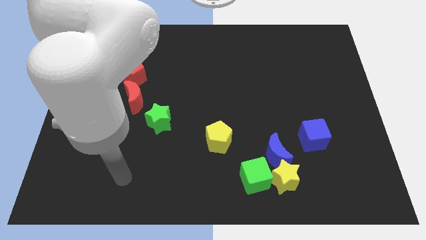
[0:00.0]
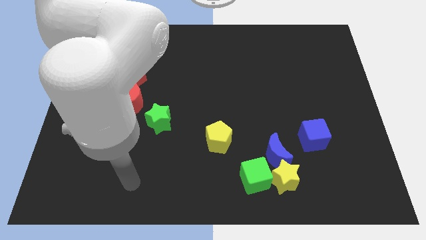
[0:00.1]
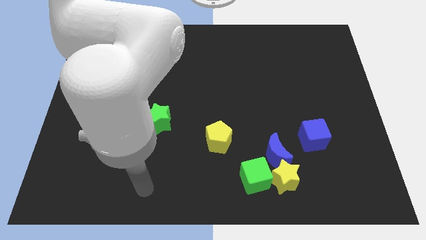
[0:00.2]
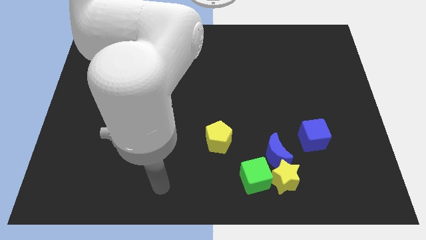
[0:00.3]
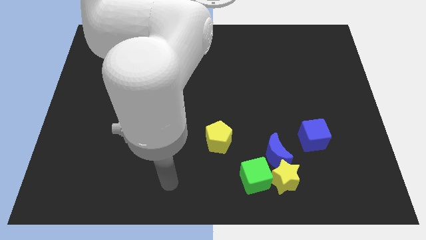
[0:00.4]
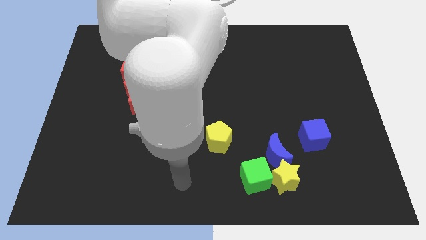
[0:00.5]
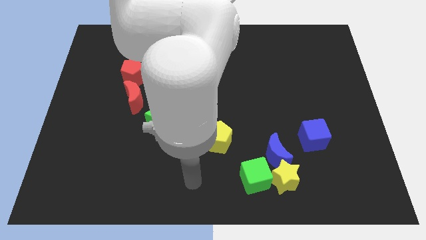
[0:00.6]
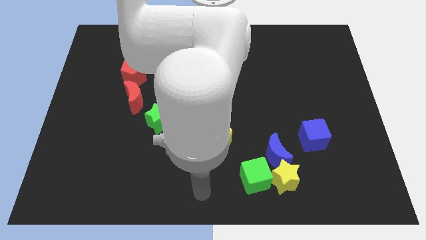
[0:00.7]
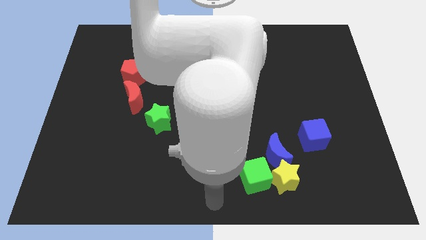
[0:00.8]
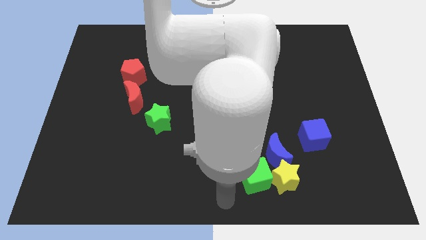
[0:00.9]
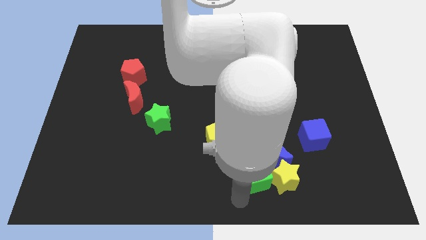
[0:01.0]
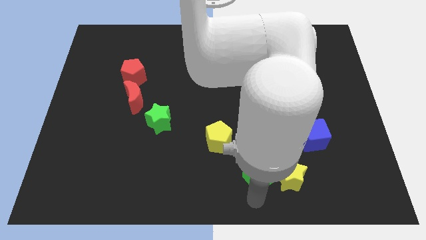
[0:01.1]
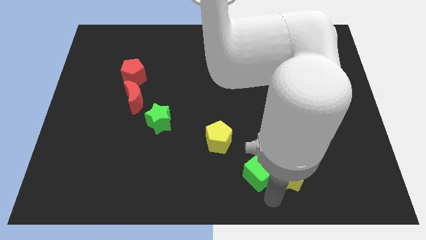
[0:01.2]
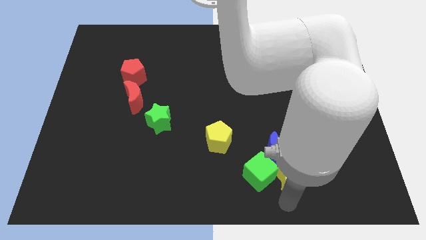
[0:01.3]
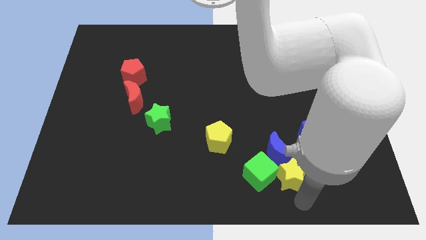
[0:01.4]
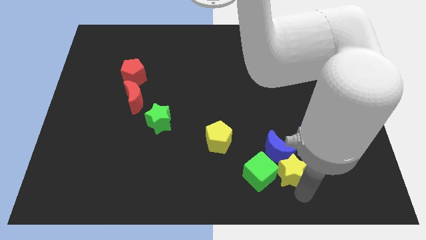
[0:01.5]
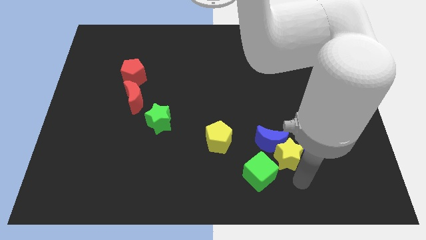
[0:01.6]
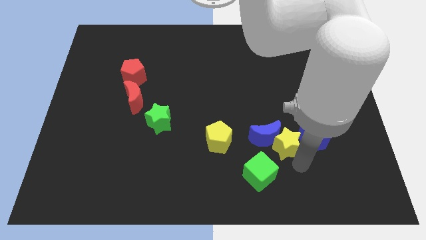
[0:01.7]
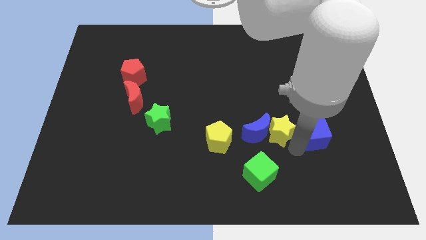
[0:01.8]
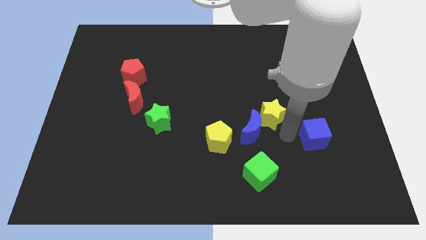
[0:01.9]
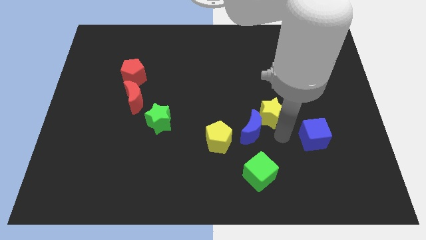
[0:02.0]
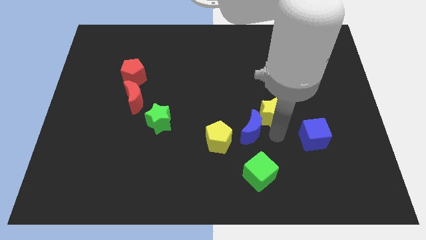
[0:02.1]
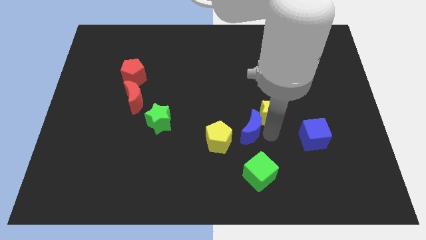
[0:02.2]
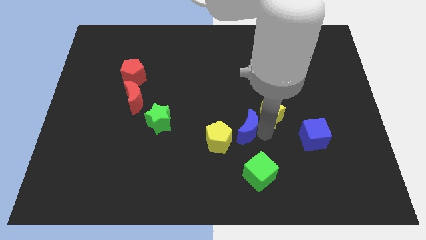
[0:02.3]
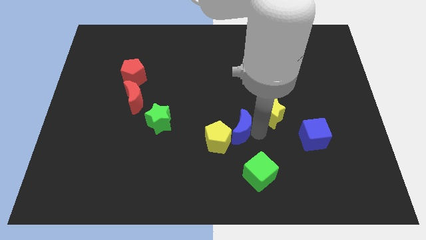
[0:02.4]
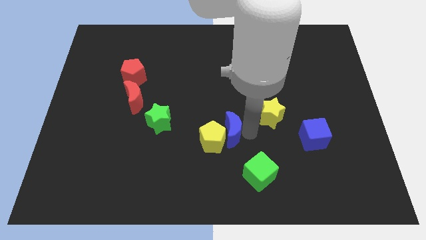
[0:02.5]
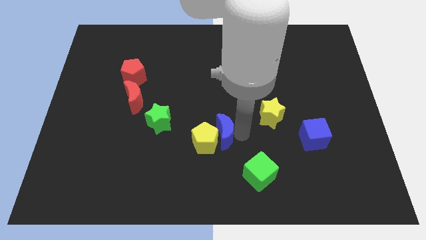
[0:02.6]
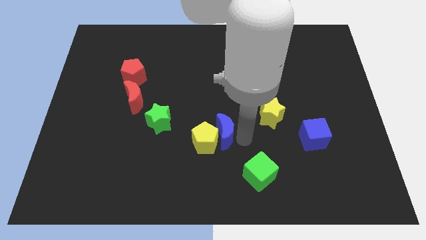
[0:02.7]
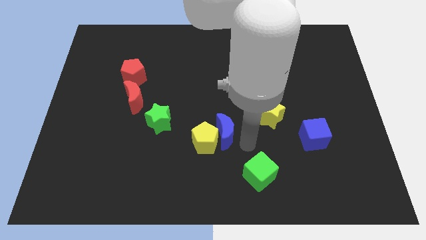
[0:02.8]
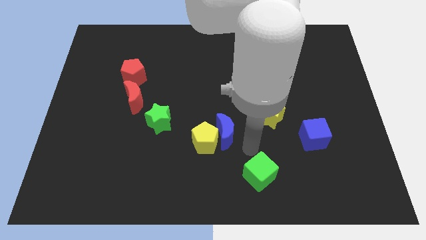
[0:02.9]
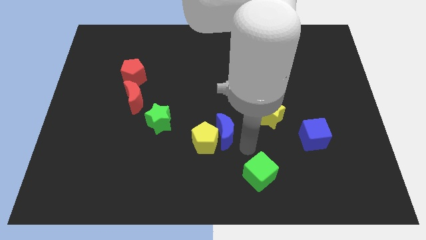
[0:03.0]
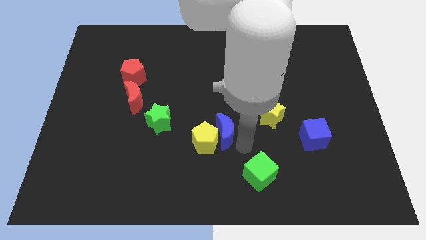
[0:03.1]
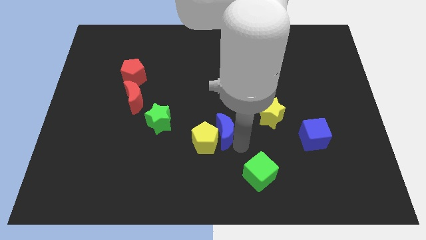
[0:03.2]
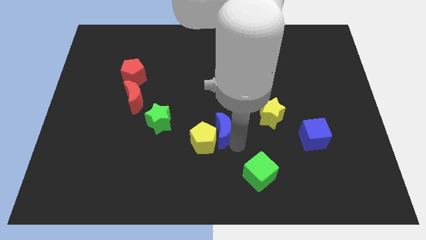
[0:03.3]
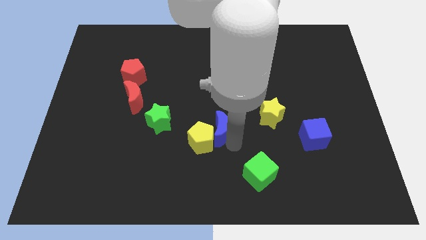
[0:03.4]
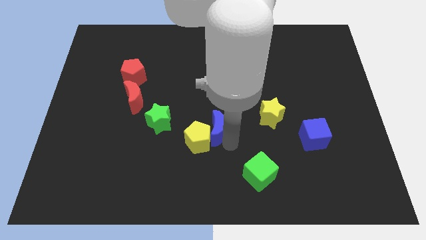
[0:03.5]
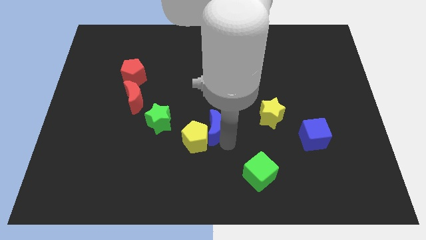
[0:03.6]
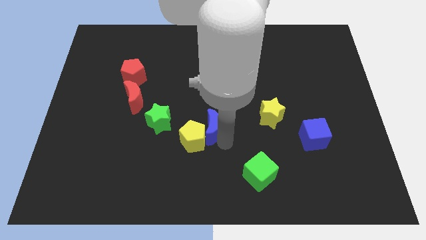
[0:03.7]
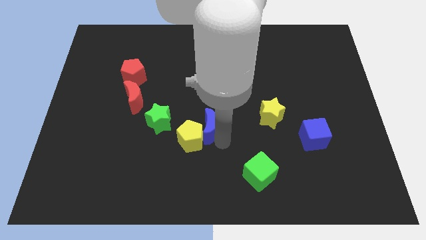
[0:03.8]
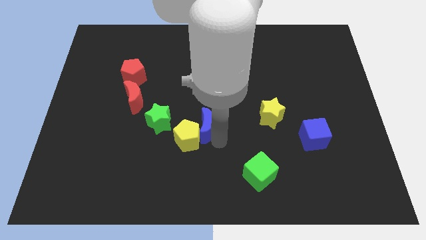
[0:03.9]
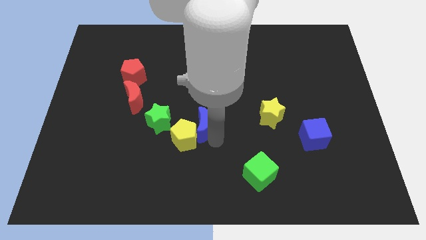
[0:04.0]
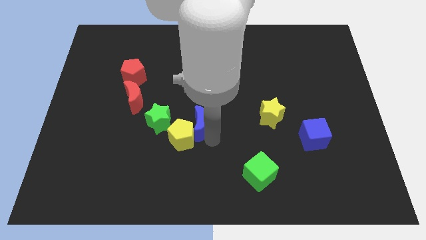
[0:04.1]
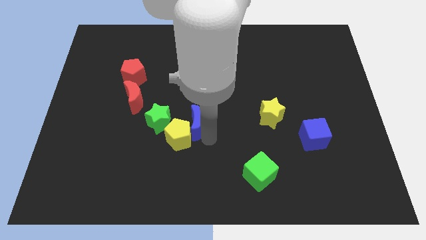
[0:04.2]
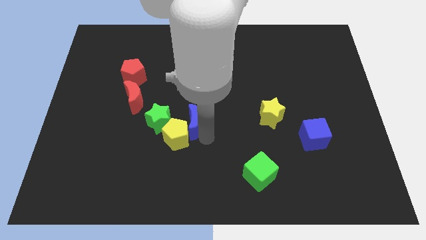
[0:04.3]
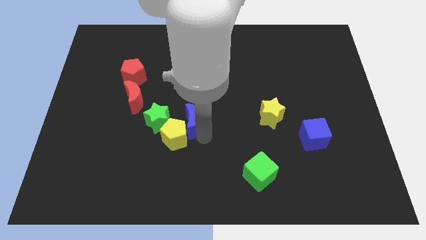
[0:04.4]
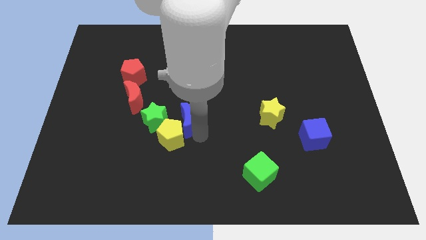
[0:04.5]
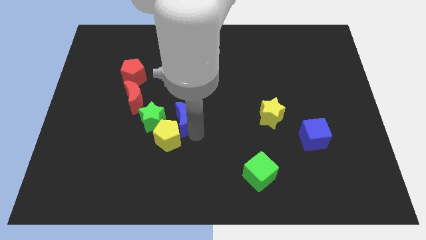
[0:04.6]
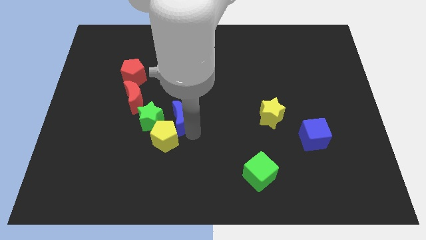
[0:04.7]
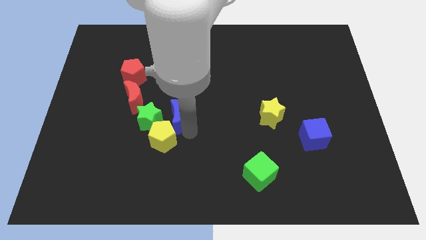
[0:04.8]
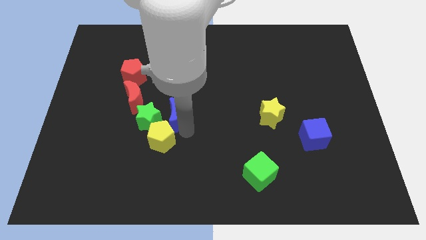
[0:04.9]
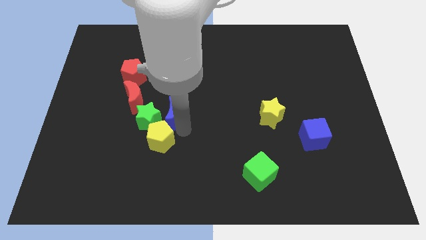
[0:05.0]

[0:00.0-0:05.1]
move the blue moon towards the green star

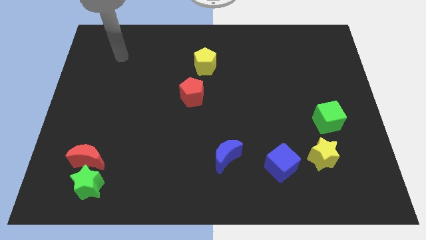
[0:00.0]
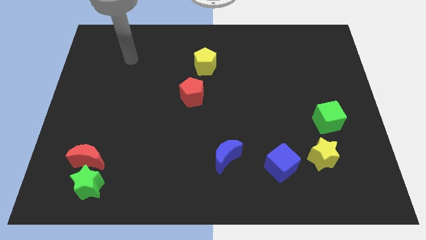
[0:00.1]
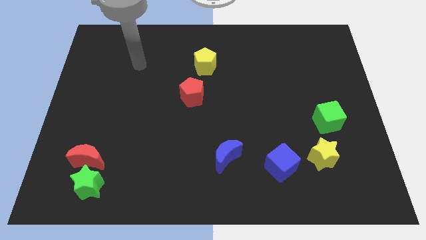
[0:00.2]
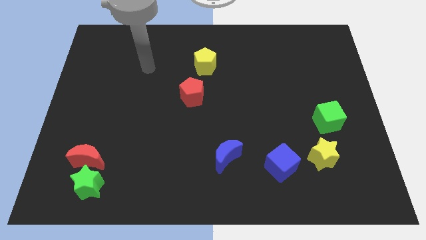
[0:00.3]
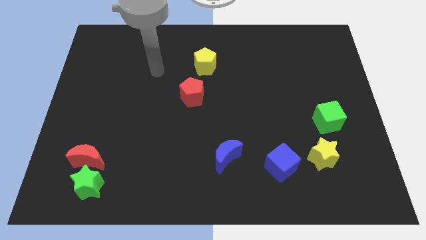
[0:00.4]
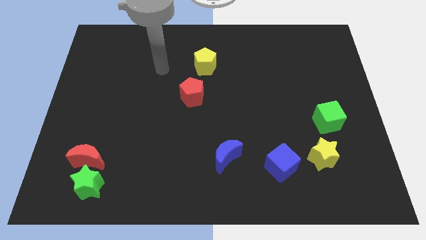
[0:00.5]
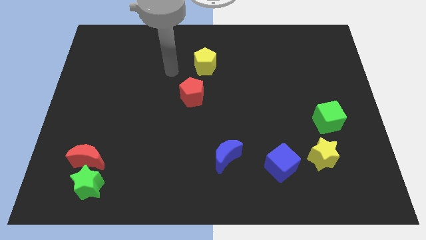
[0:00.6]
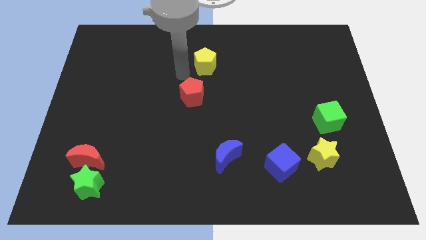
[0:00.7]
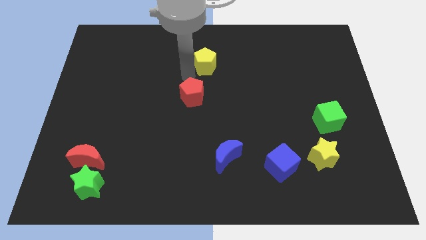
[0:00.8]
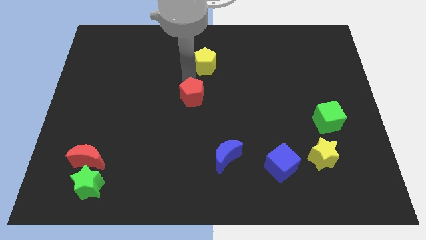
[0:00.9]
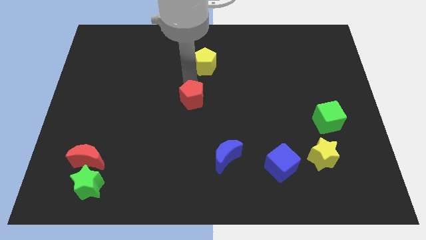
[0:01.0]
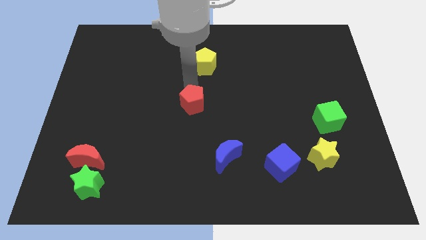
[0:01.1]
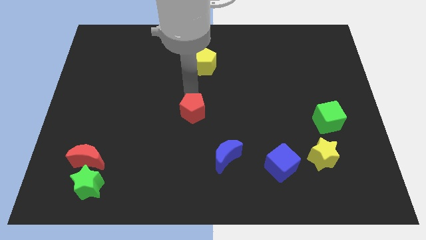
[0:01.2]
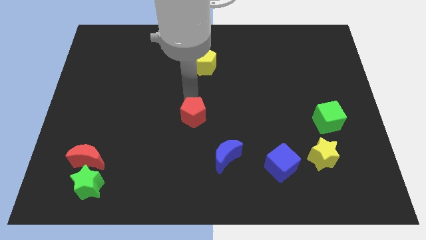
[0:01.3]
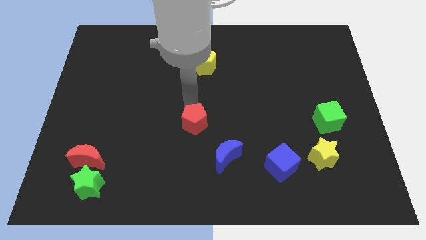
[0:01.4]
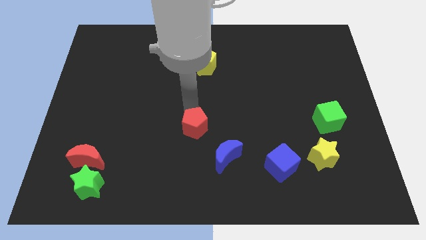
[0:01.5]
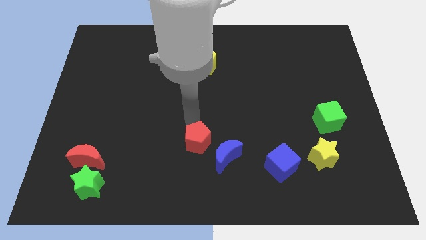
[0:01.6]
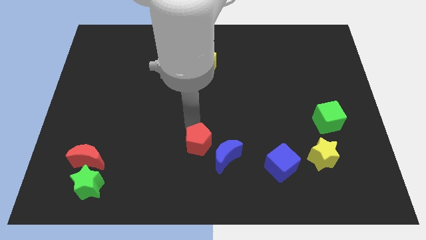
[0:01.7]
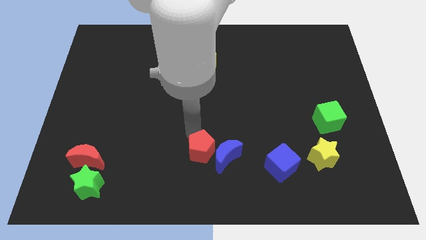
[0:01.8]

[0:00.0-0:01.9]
slide the red pentagon to the blue moon

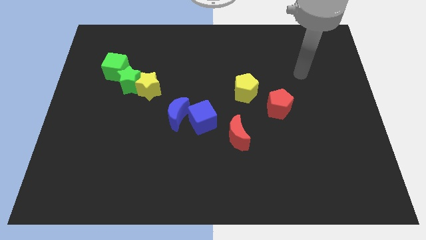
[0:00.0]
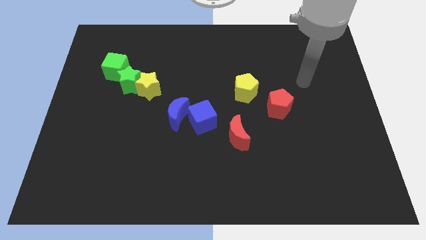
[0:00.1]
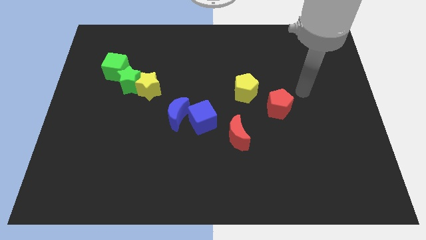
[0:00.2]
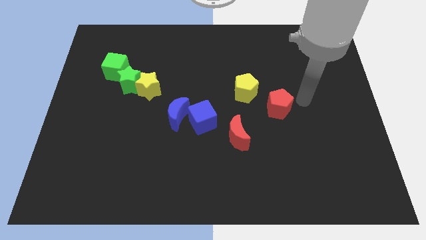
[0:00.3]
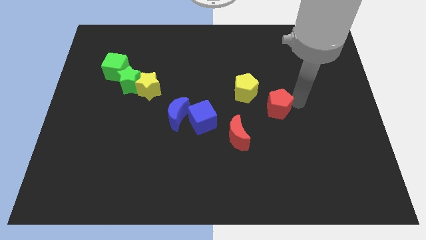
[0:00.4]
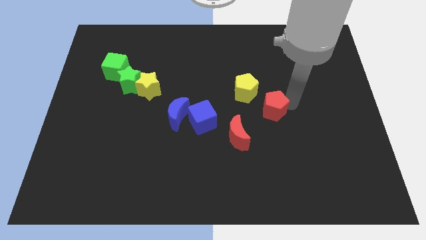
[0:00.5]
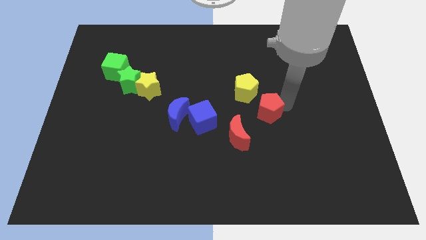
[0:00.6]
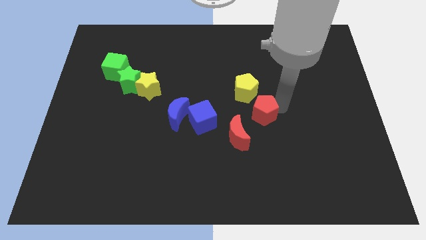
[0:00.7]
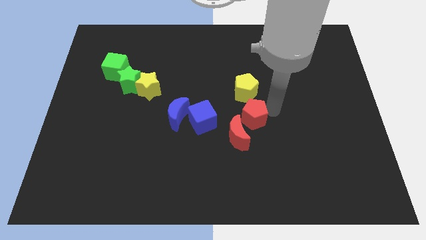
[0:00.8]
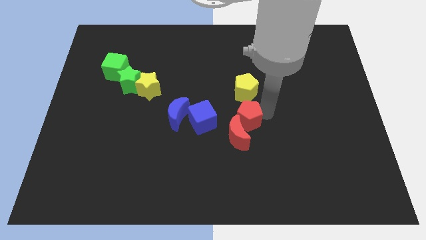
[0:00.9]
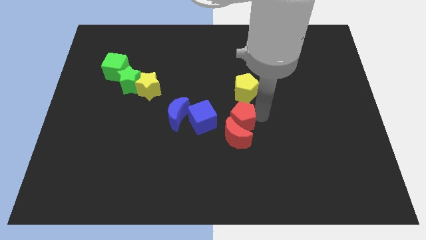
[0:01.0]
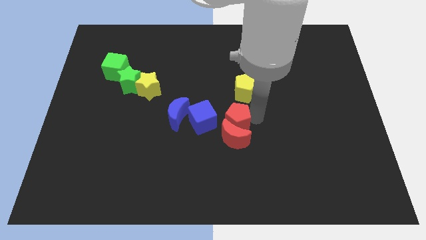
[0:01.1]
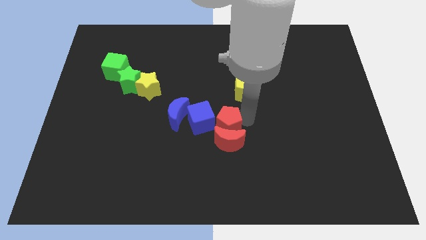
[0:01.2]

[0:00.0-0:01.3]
push the red pentagon to the blue cube
